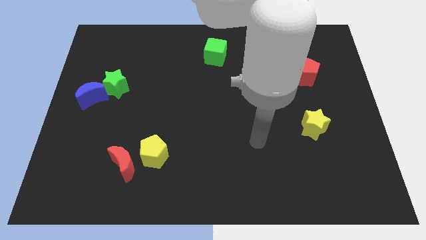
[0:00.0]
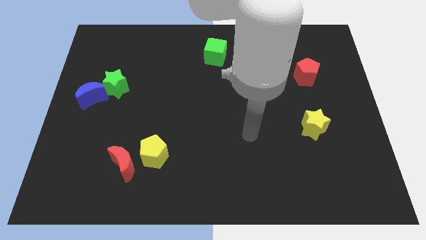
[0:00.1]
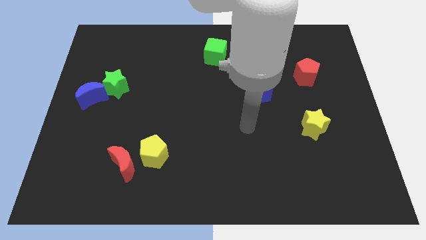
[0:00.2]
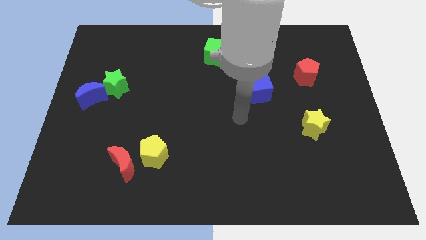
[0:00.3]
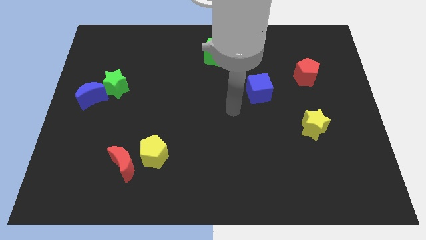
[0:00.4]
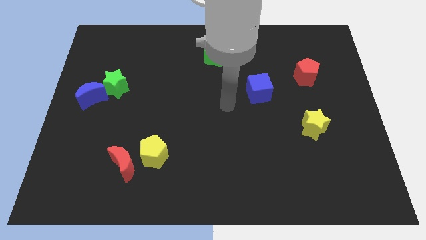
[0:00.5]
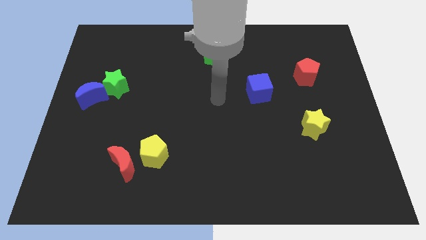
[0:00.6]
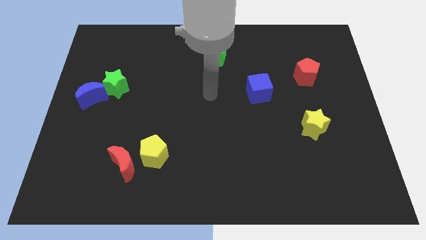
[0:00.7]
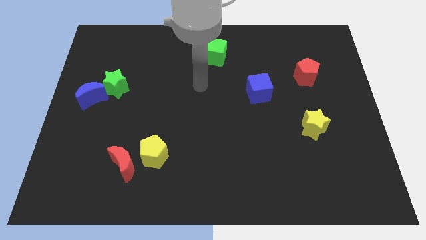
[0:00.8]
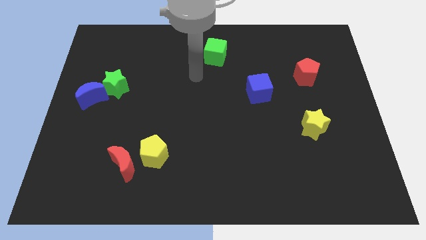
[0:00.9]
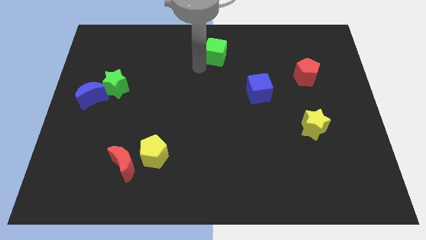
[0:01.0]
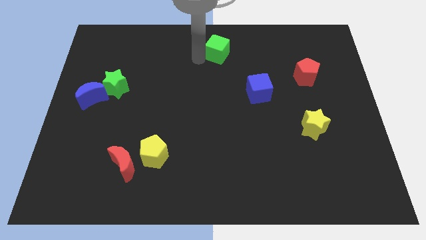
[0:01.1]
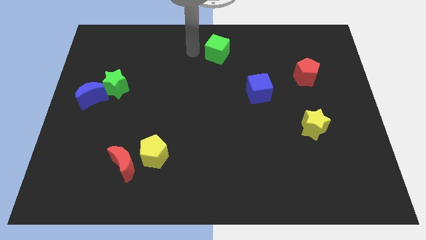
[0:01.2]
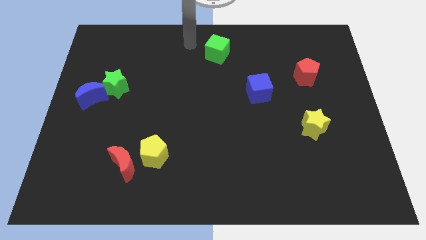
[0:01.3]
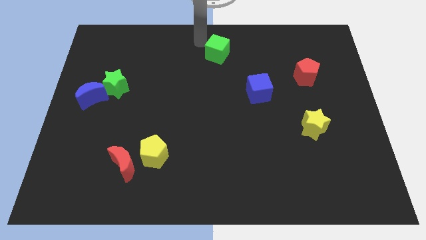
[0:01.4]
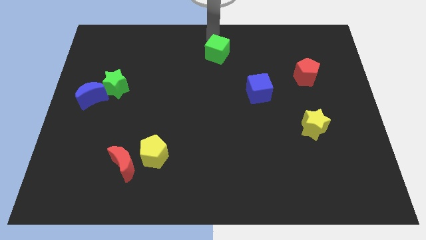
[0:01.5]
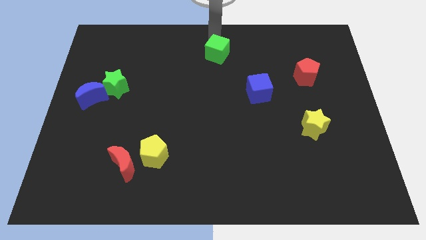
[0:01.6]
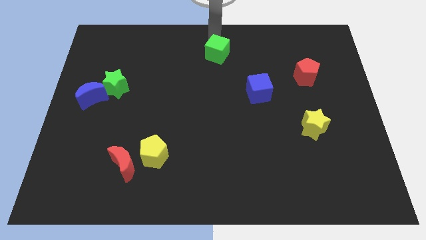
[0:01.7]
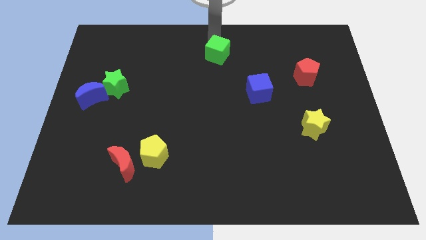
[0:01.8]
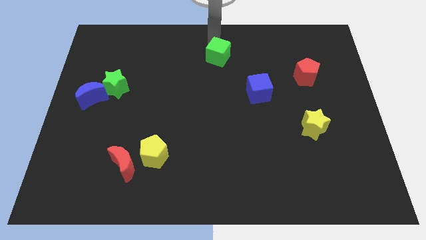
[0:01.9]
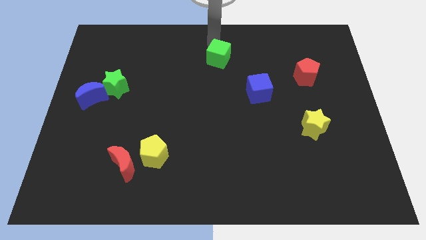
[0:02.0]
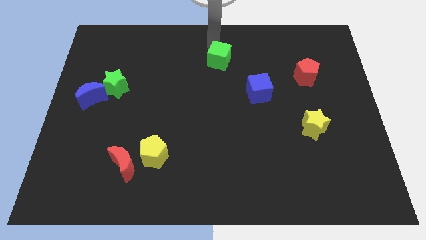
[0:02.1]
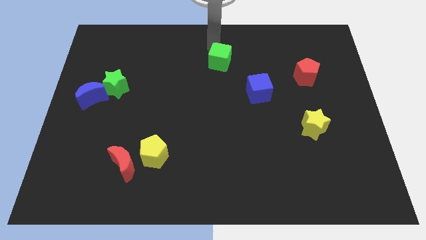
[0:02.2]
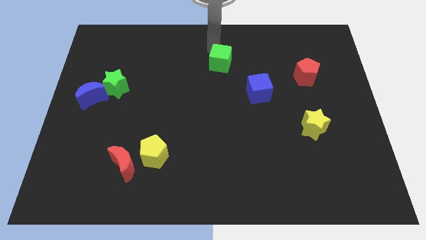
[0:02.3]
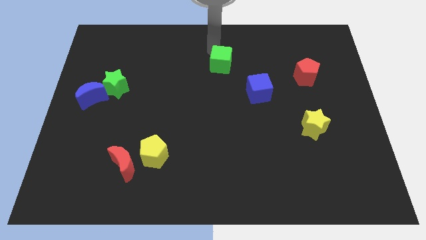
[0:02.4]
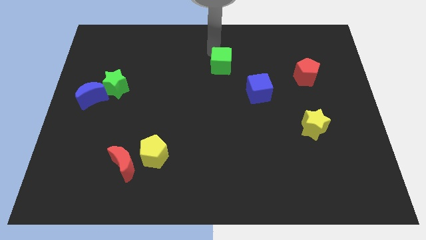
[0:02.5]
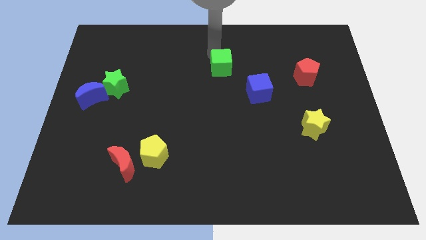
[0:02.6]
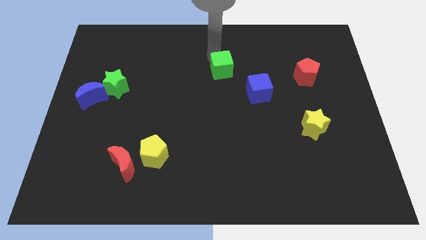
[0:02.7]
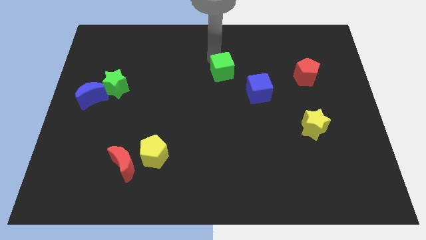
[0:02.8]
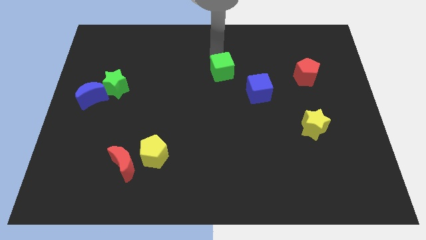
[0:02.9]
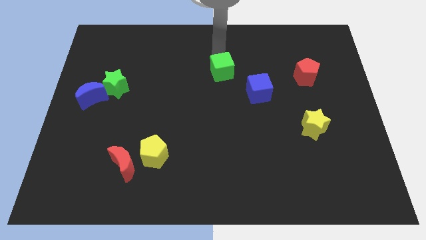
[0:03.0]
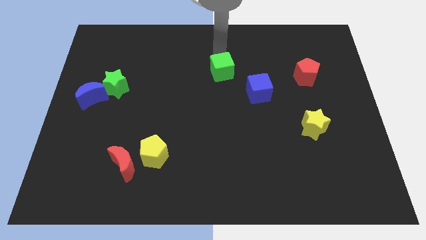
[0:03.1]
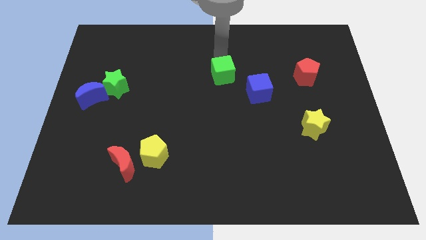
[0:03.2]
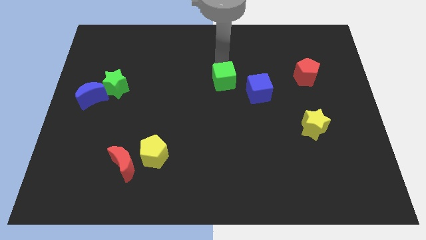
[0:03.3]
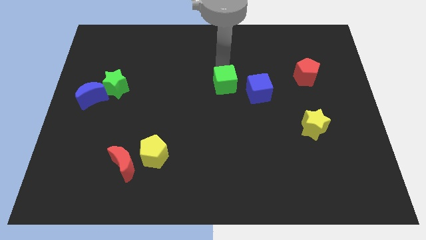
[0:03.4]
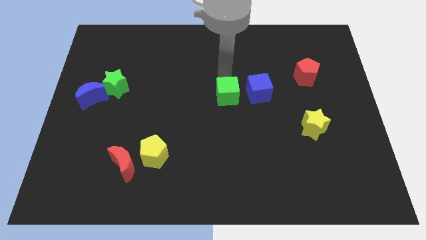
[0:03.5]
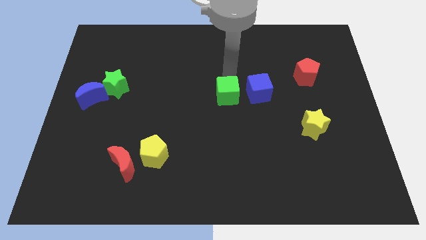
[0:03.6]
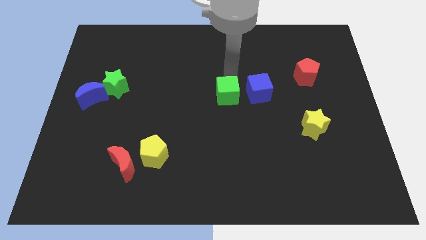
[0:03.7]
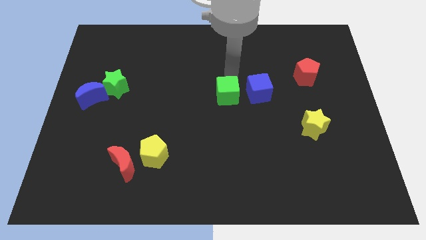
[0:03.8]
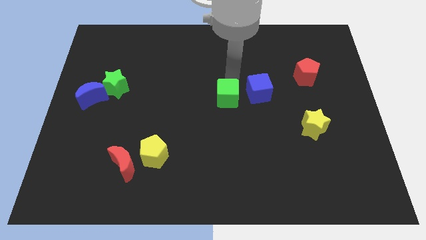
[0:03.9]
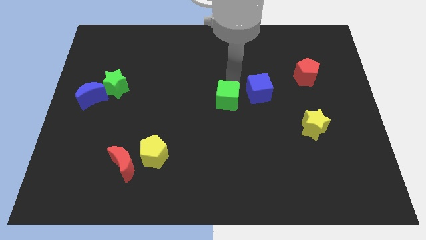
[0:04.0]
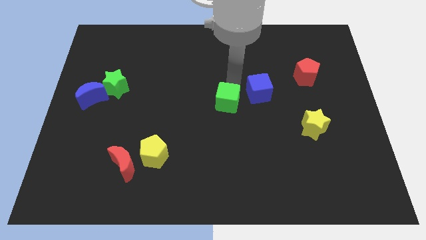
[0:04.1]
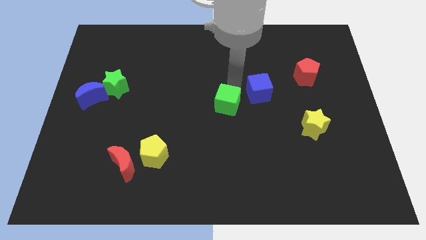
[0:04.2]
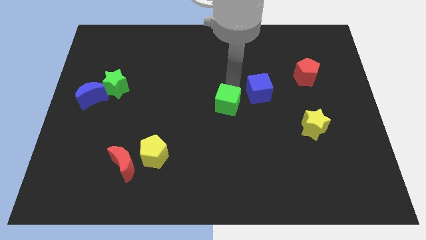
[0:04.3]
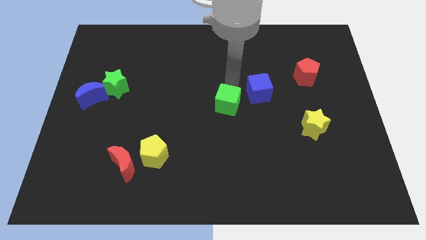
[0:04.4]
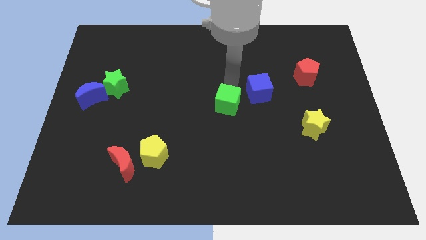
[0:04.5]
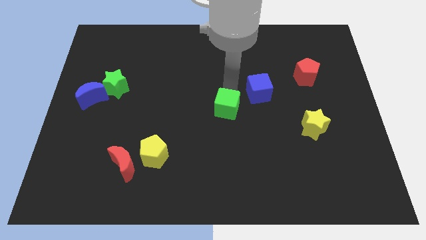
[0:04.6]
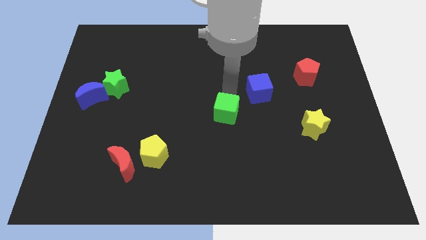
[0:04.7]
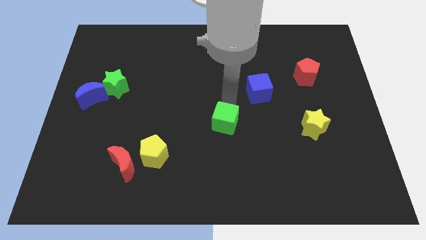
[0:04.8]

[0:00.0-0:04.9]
move the green cube down

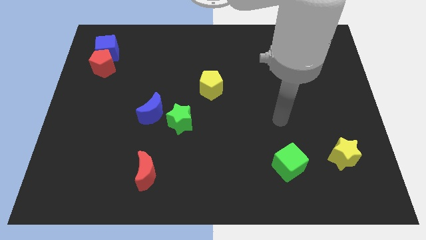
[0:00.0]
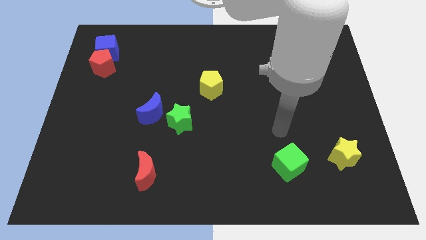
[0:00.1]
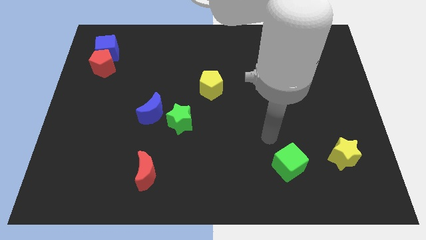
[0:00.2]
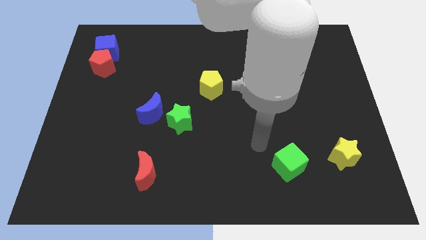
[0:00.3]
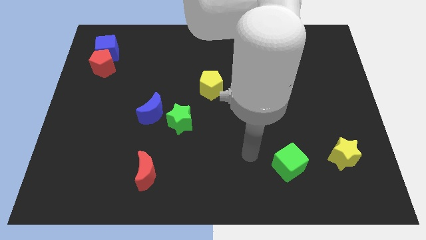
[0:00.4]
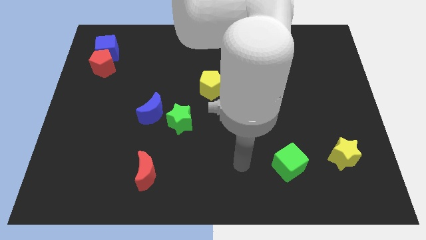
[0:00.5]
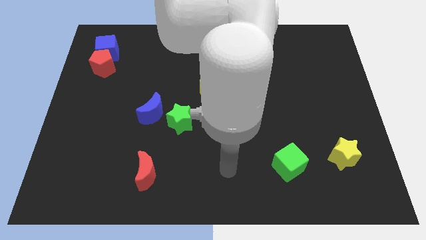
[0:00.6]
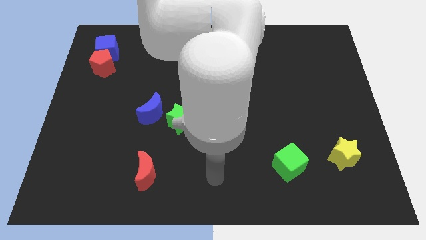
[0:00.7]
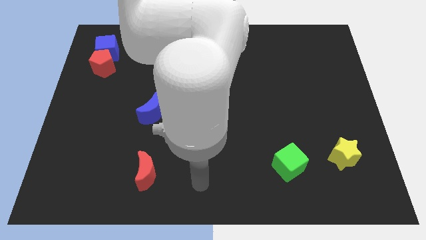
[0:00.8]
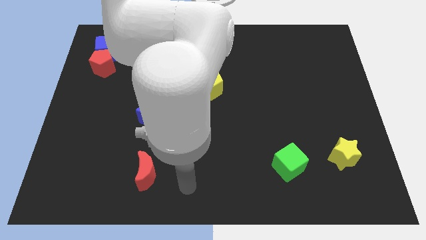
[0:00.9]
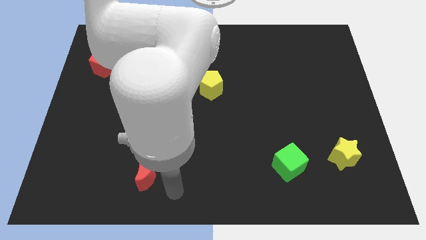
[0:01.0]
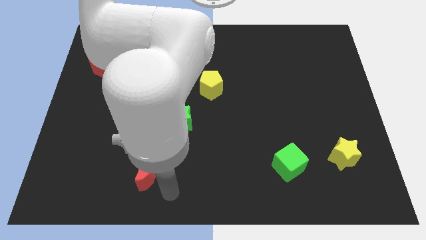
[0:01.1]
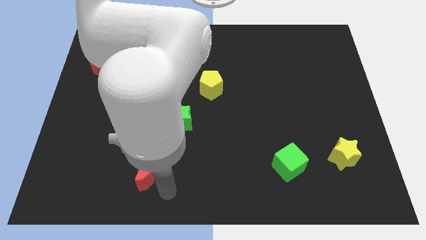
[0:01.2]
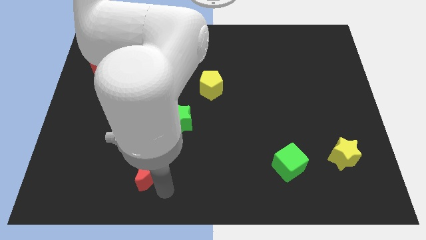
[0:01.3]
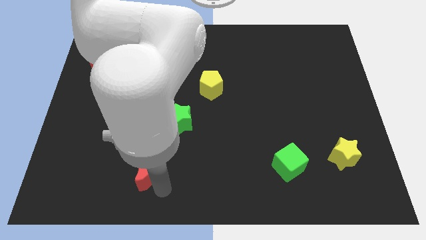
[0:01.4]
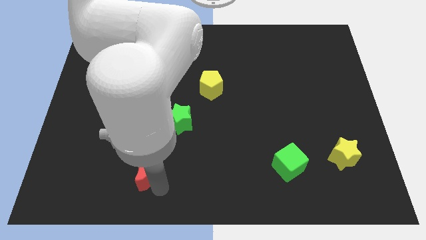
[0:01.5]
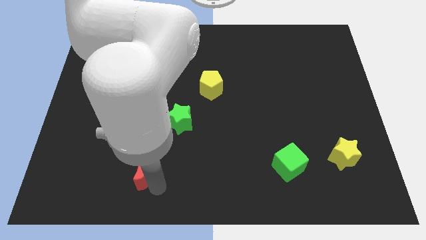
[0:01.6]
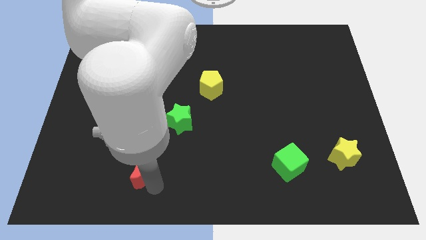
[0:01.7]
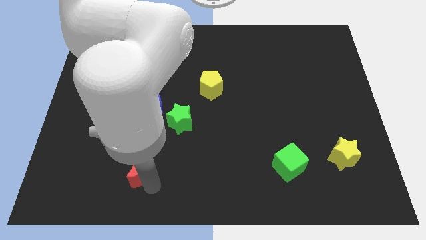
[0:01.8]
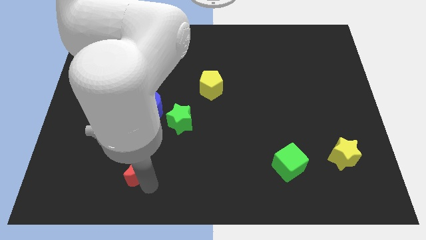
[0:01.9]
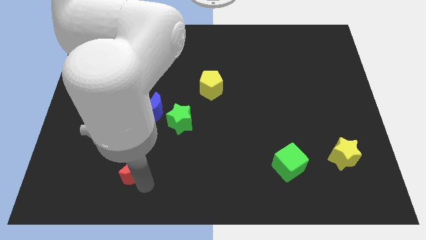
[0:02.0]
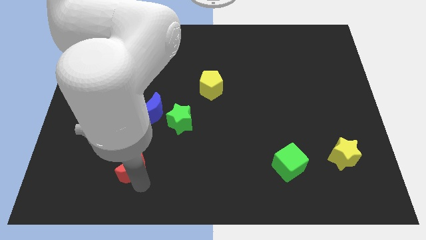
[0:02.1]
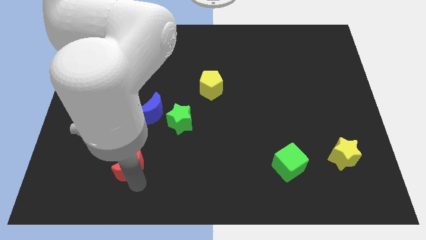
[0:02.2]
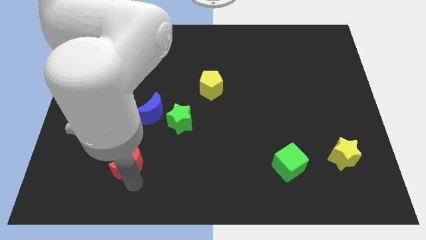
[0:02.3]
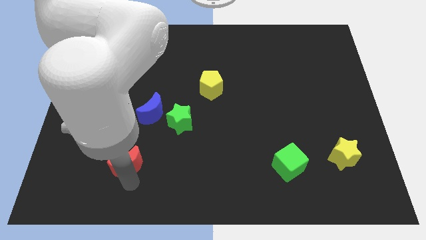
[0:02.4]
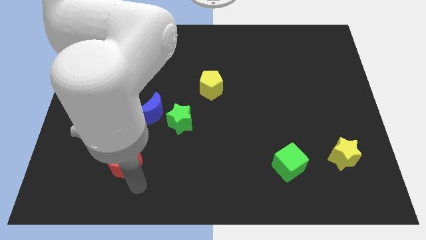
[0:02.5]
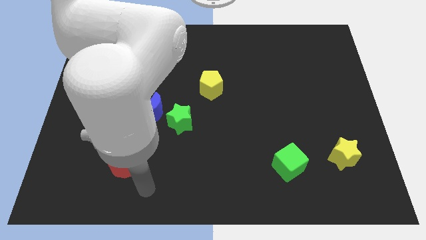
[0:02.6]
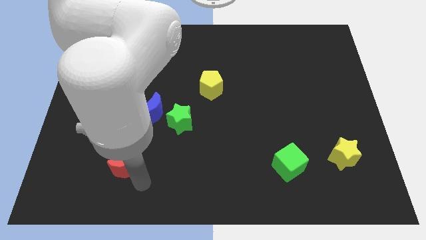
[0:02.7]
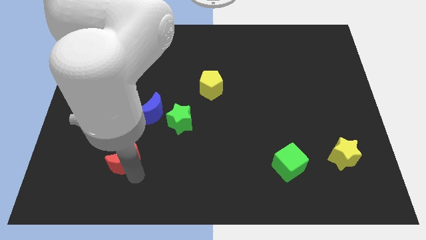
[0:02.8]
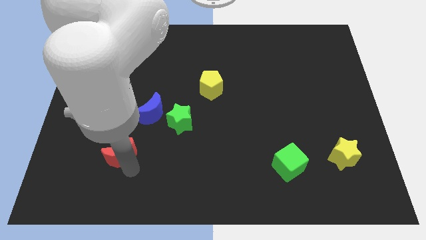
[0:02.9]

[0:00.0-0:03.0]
slightly move the red moon upwards and then to the left
